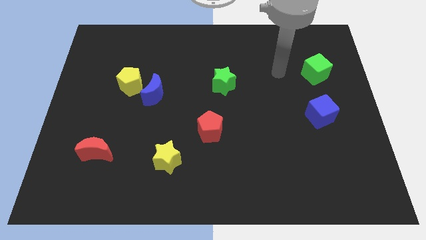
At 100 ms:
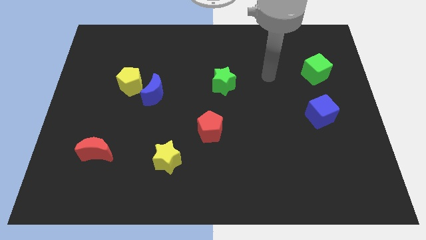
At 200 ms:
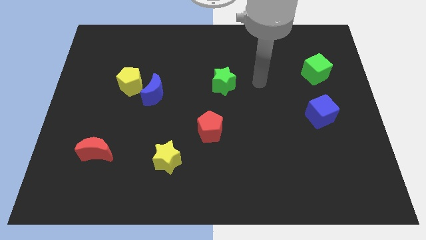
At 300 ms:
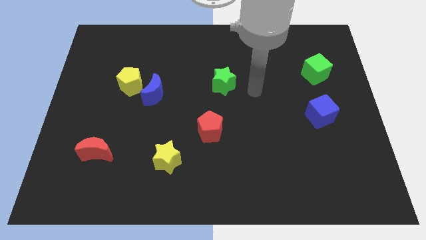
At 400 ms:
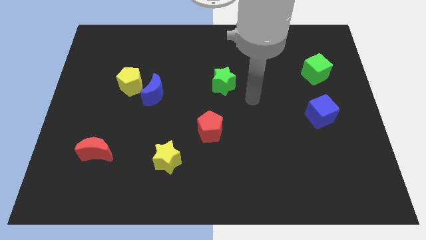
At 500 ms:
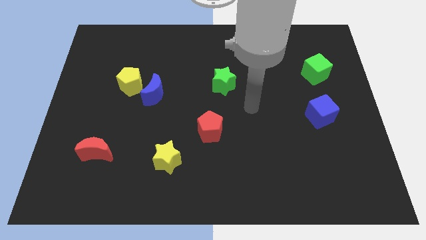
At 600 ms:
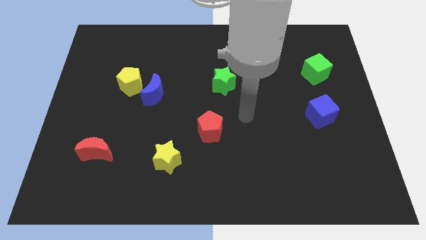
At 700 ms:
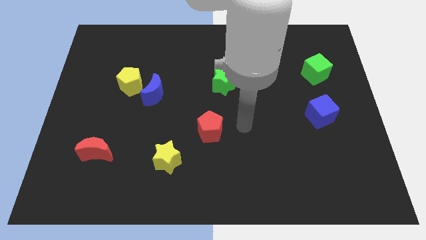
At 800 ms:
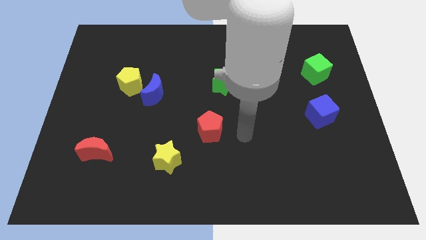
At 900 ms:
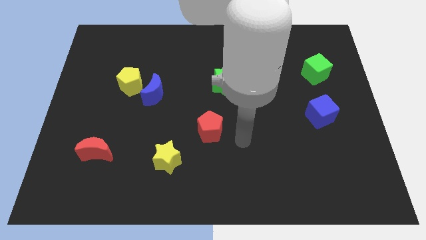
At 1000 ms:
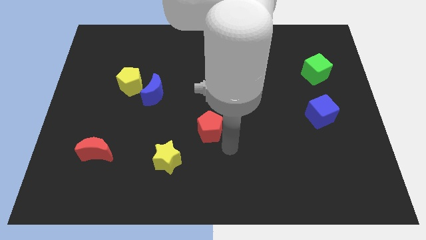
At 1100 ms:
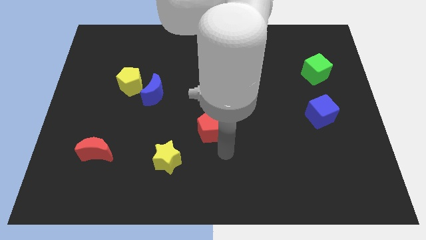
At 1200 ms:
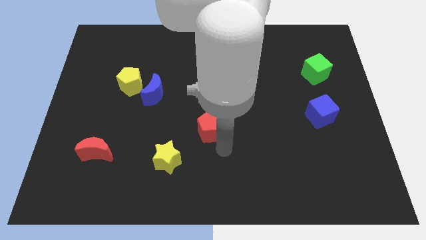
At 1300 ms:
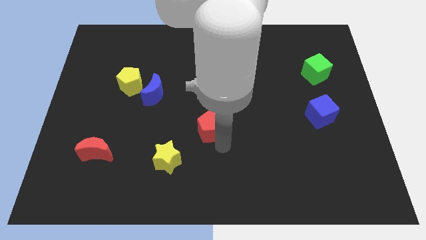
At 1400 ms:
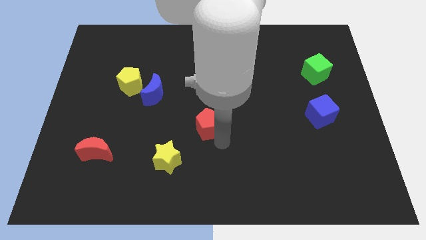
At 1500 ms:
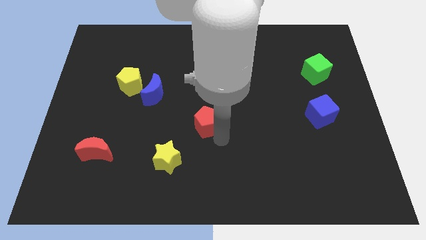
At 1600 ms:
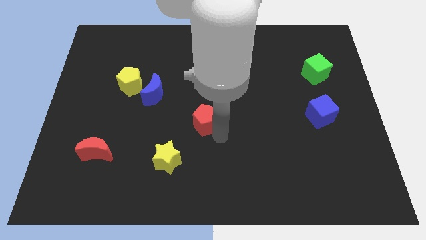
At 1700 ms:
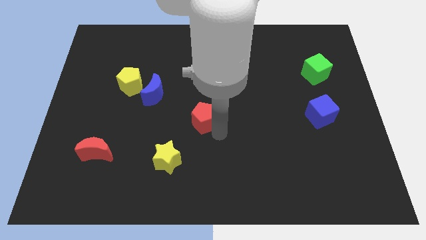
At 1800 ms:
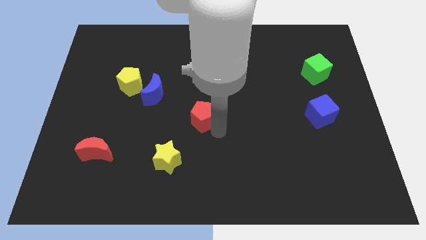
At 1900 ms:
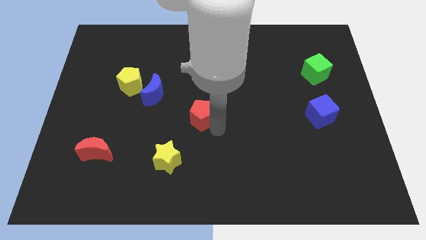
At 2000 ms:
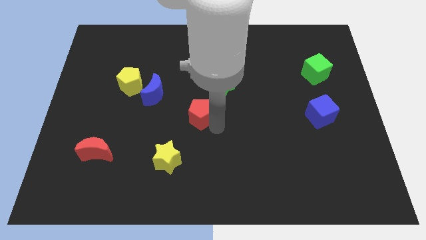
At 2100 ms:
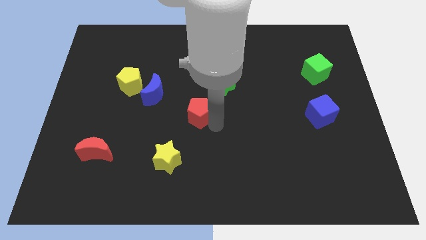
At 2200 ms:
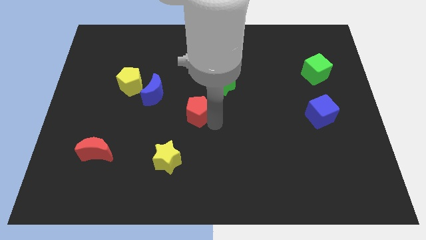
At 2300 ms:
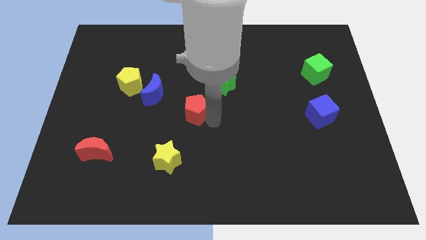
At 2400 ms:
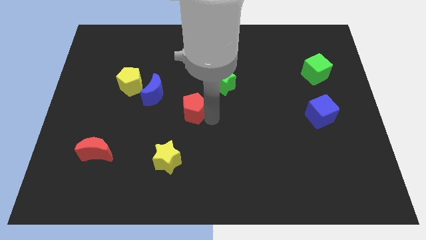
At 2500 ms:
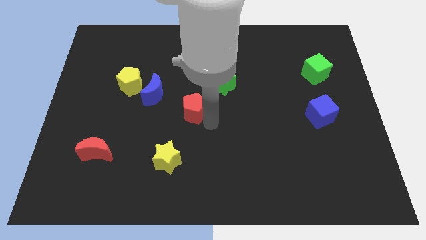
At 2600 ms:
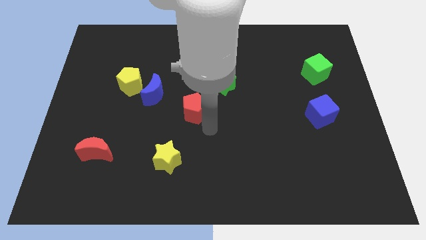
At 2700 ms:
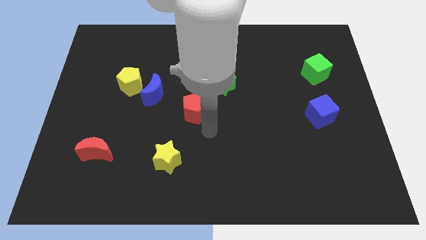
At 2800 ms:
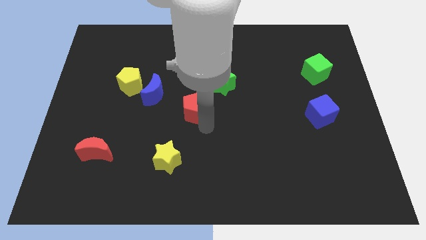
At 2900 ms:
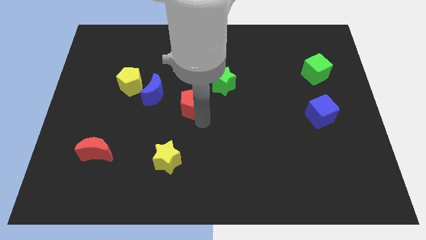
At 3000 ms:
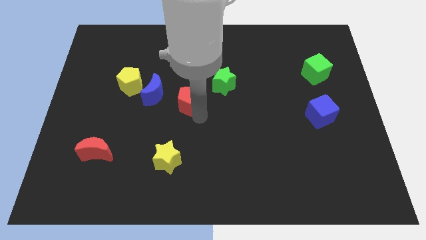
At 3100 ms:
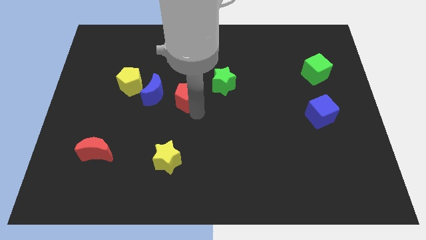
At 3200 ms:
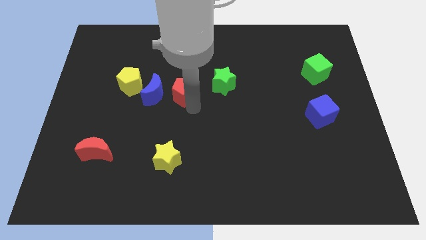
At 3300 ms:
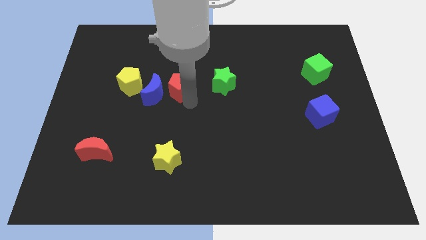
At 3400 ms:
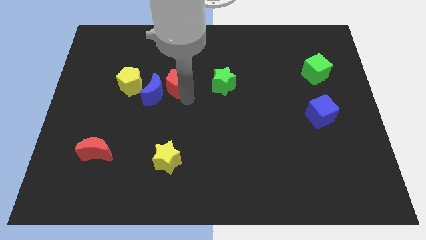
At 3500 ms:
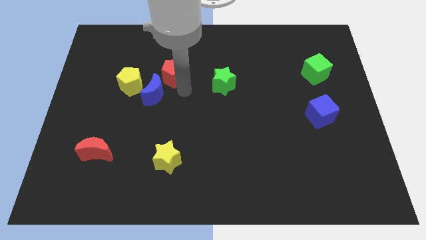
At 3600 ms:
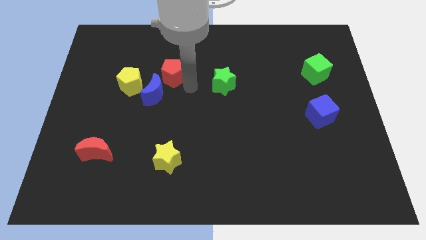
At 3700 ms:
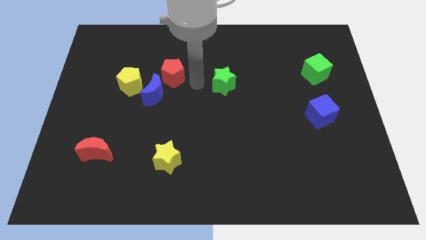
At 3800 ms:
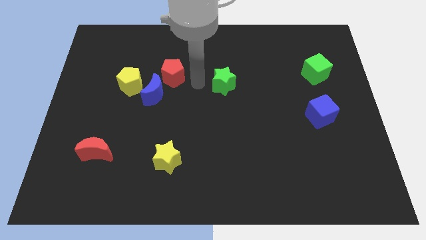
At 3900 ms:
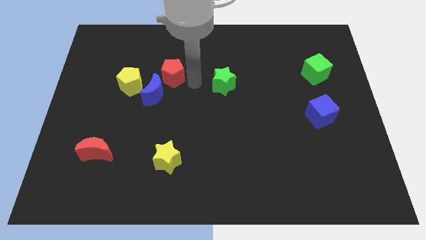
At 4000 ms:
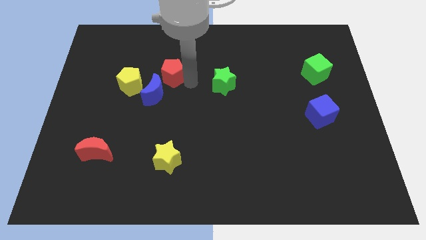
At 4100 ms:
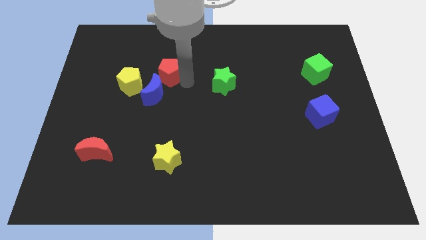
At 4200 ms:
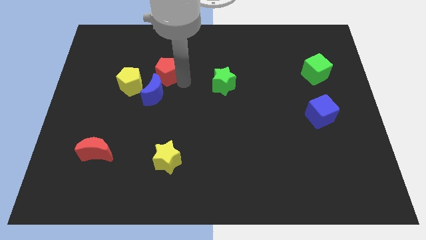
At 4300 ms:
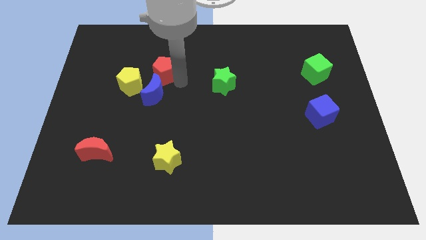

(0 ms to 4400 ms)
push the red pentagon upwards and left

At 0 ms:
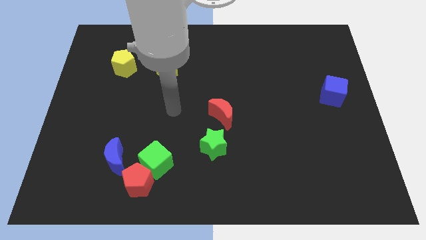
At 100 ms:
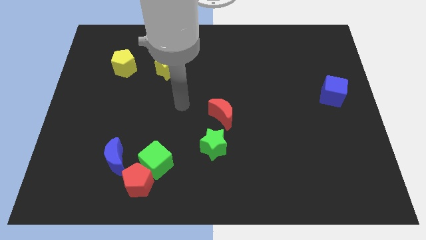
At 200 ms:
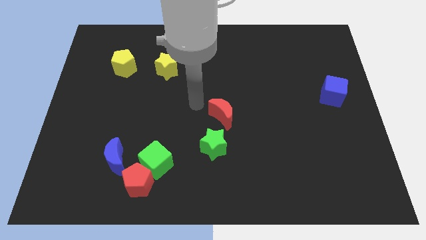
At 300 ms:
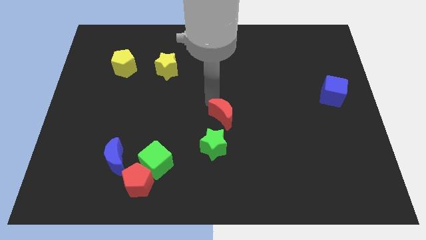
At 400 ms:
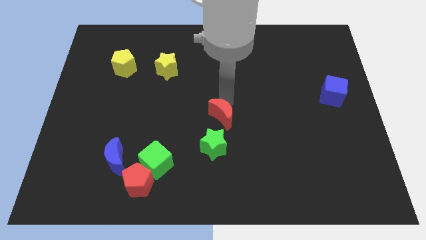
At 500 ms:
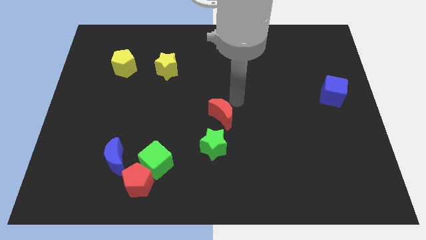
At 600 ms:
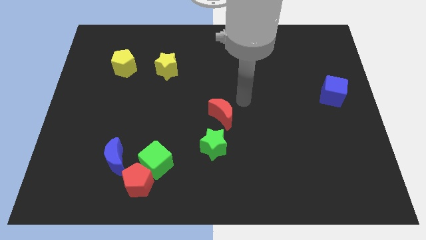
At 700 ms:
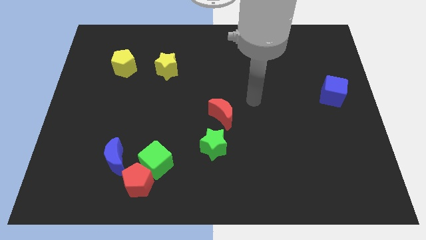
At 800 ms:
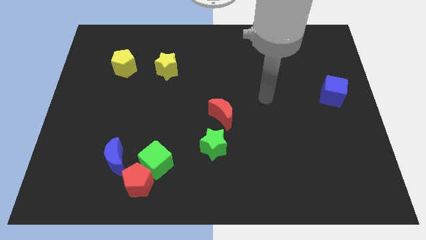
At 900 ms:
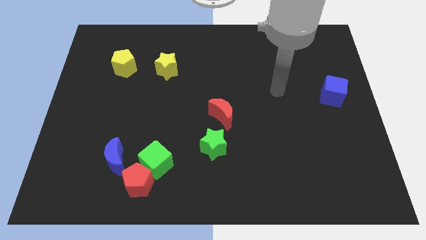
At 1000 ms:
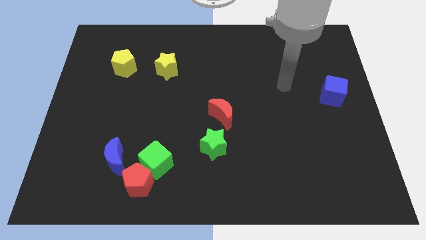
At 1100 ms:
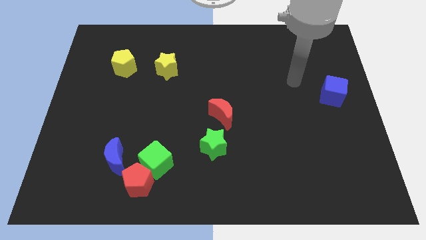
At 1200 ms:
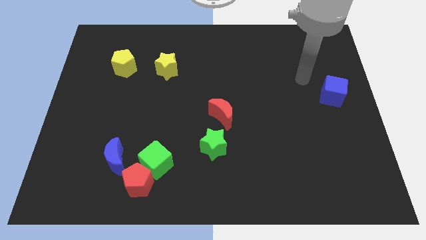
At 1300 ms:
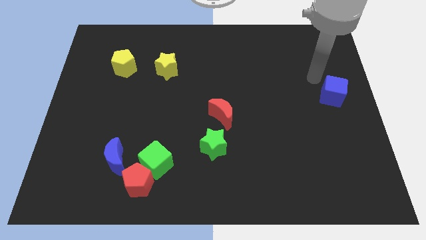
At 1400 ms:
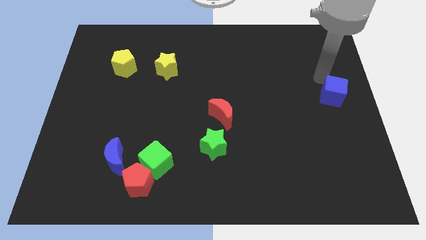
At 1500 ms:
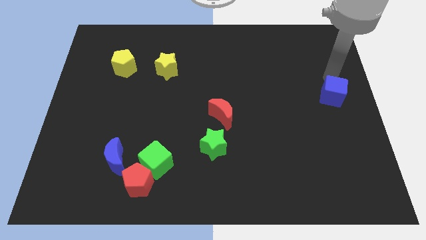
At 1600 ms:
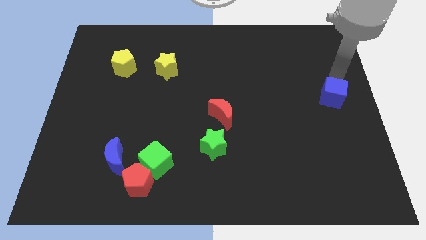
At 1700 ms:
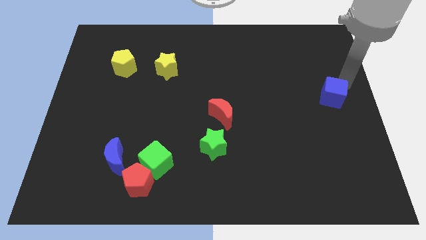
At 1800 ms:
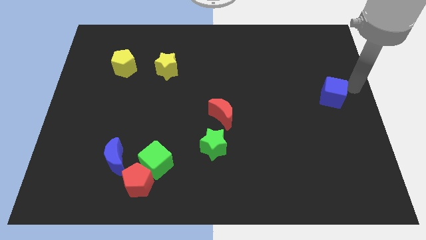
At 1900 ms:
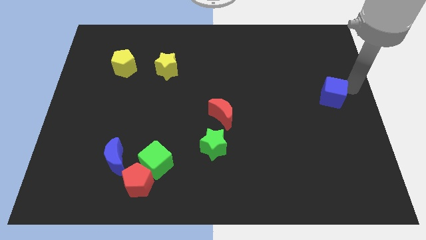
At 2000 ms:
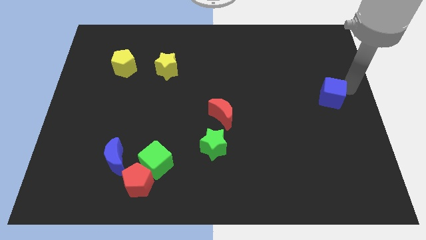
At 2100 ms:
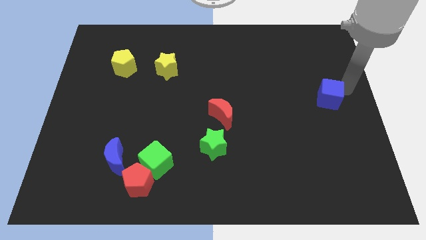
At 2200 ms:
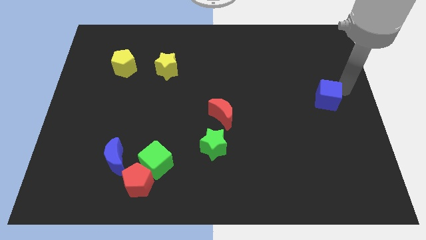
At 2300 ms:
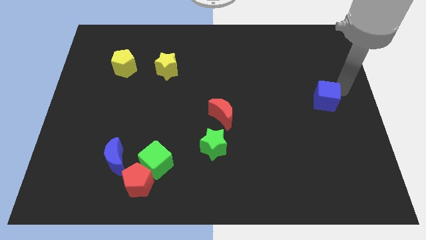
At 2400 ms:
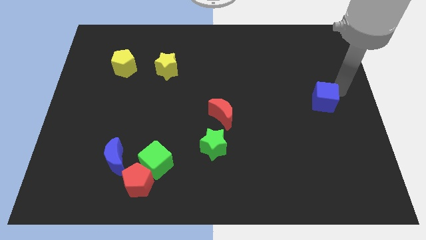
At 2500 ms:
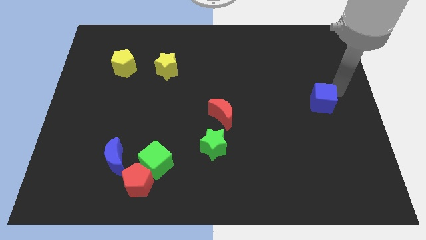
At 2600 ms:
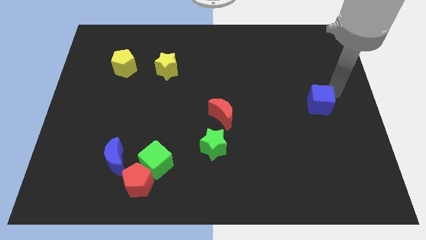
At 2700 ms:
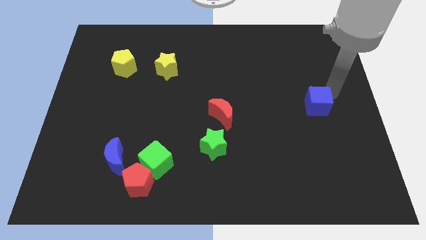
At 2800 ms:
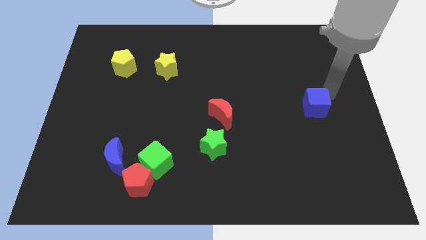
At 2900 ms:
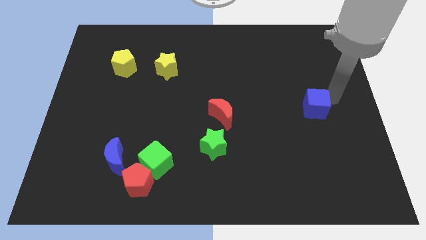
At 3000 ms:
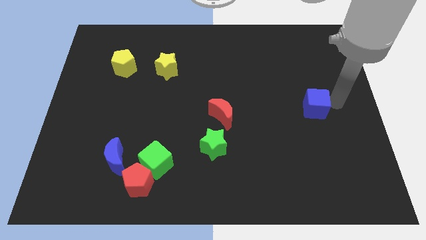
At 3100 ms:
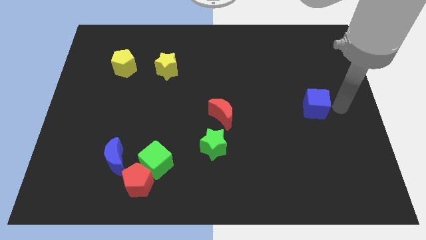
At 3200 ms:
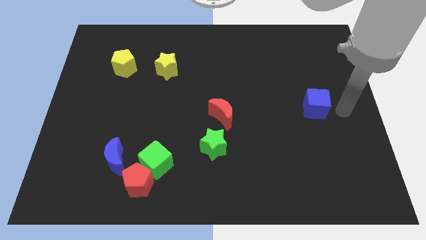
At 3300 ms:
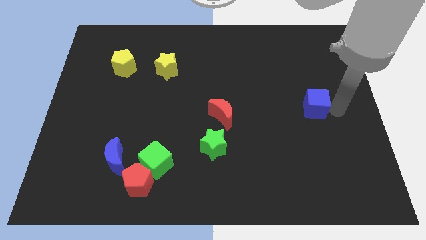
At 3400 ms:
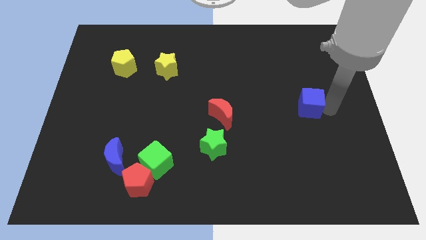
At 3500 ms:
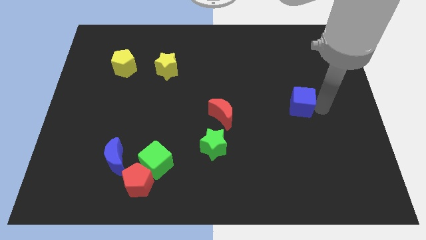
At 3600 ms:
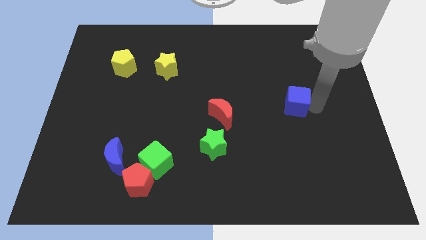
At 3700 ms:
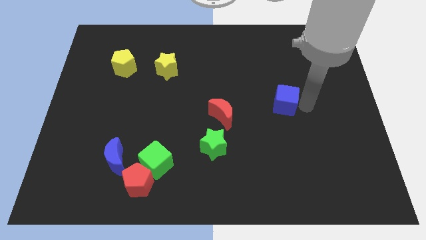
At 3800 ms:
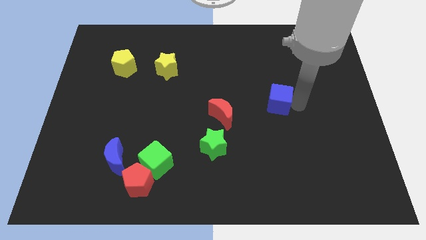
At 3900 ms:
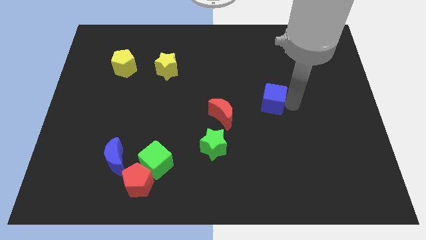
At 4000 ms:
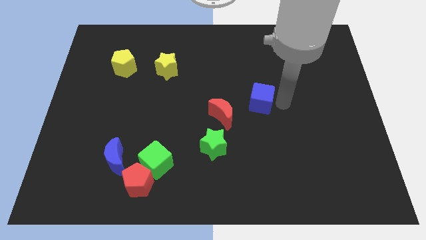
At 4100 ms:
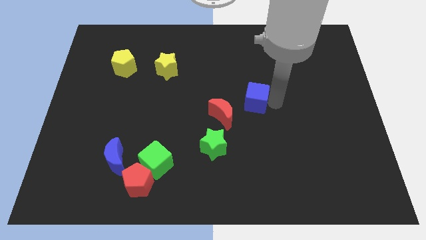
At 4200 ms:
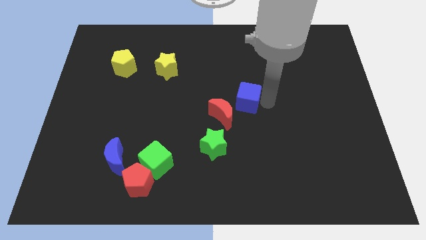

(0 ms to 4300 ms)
slide the blue cube left
